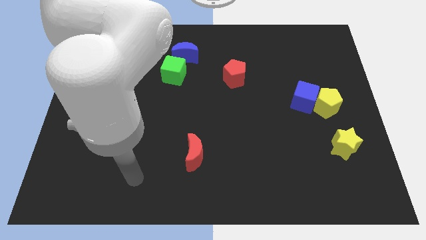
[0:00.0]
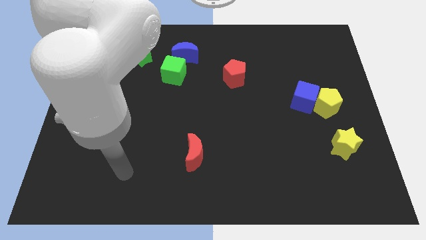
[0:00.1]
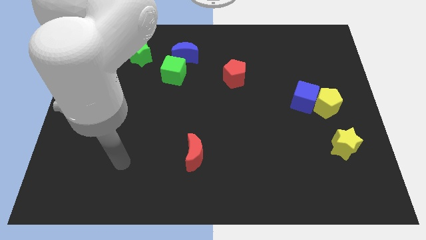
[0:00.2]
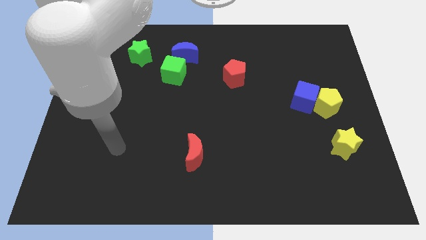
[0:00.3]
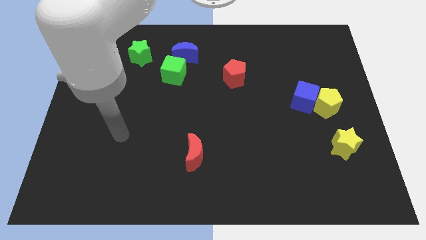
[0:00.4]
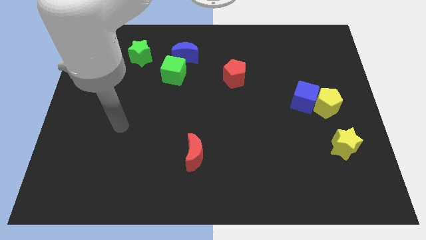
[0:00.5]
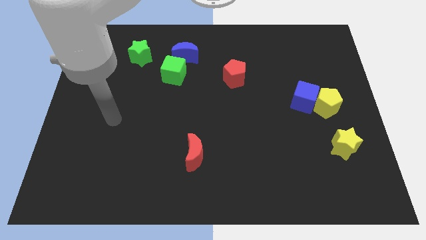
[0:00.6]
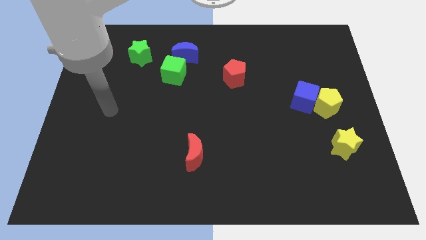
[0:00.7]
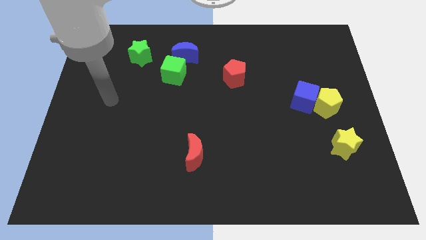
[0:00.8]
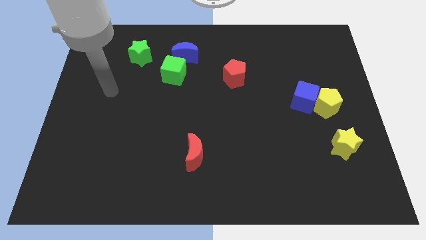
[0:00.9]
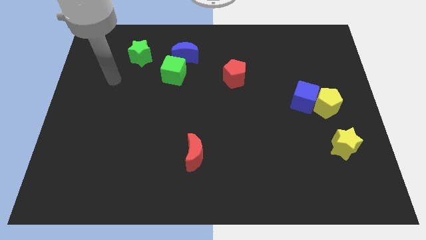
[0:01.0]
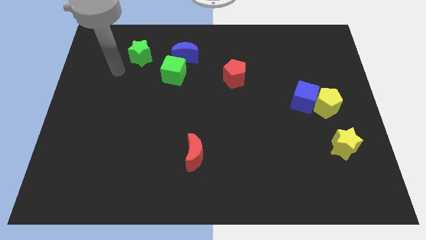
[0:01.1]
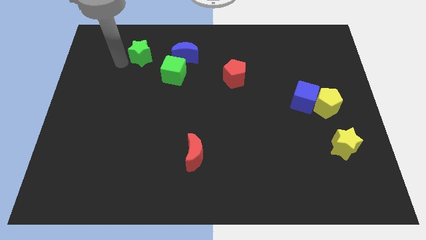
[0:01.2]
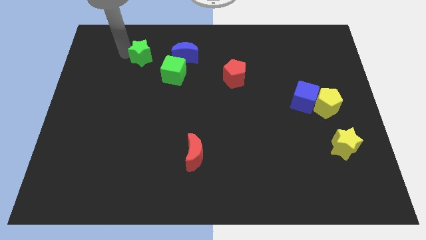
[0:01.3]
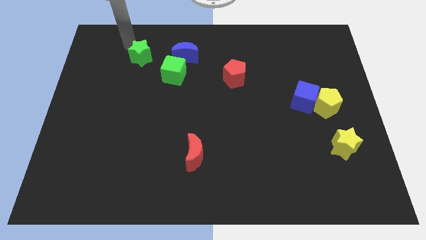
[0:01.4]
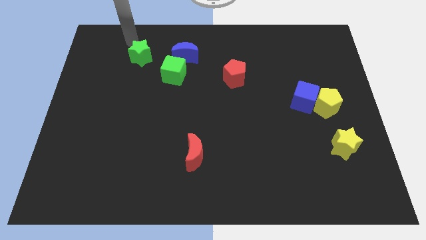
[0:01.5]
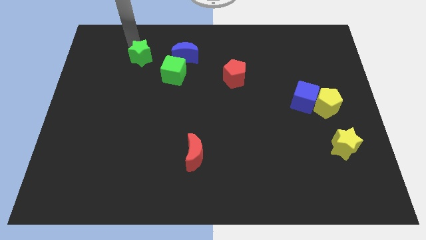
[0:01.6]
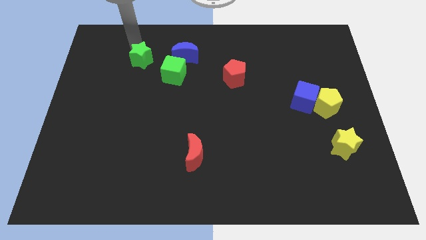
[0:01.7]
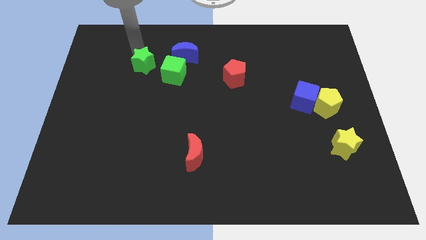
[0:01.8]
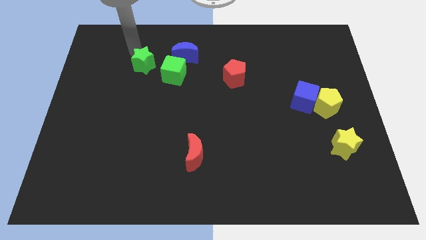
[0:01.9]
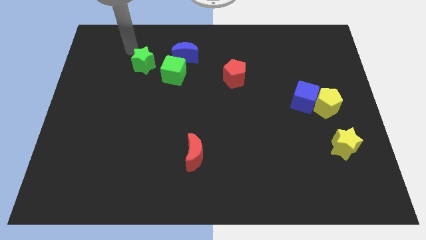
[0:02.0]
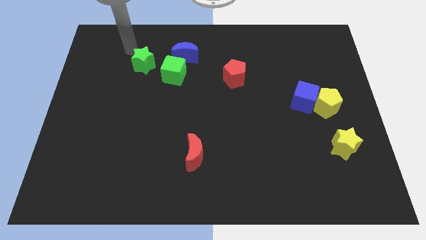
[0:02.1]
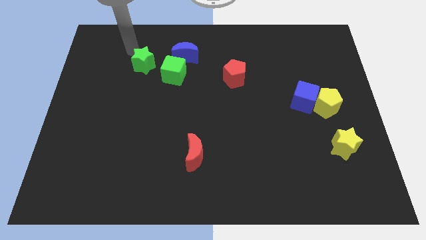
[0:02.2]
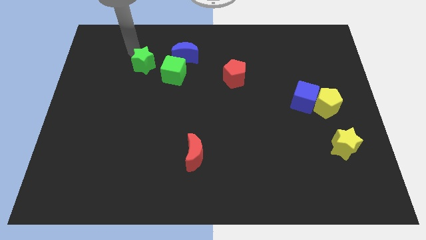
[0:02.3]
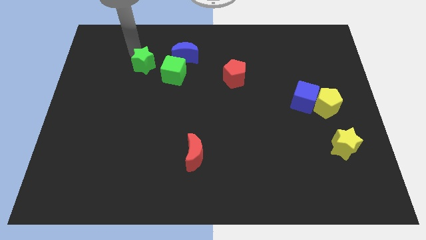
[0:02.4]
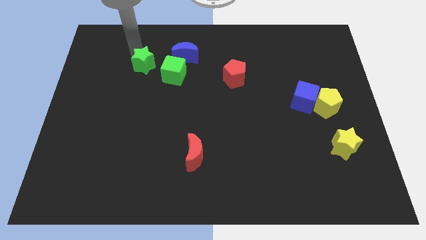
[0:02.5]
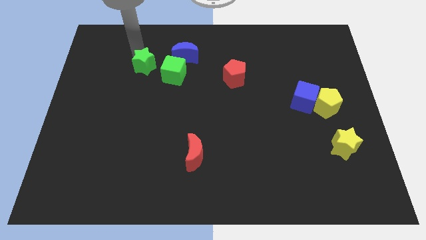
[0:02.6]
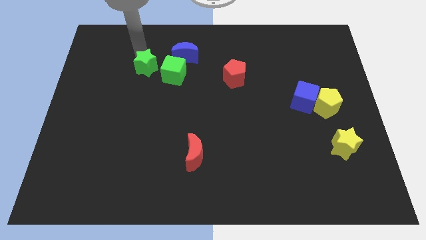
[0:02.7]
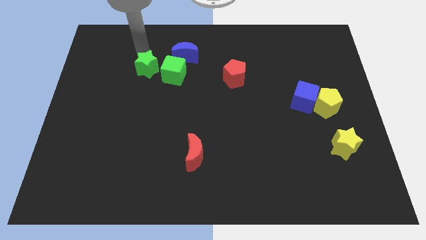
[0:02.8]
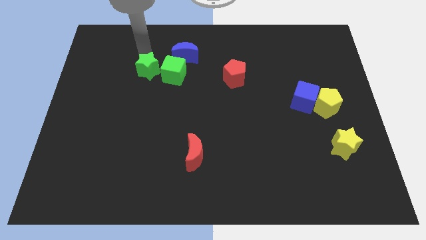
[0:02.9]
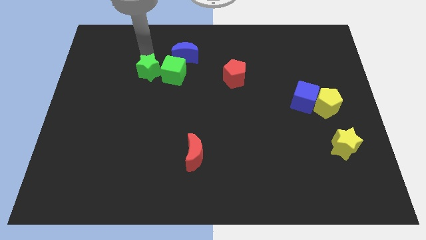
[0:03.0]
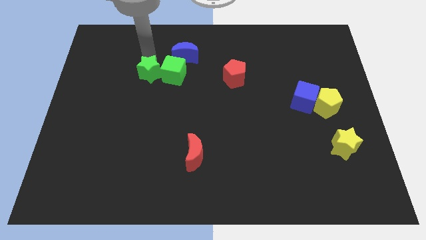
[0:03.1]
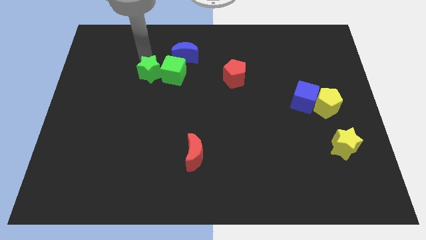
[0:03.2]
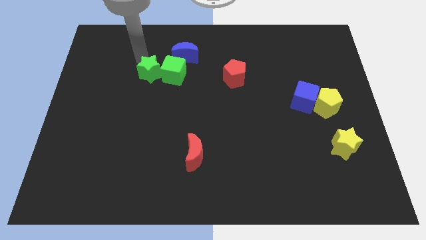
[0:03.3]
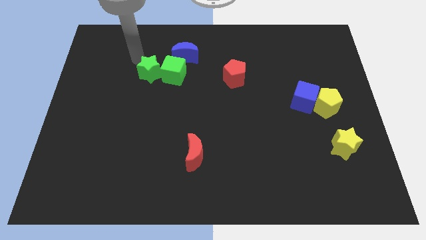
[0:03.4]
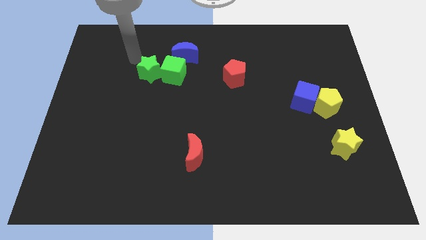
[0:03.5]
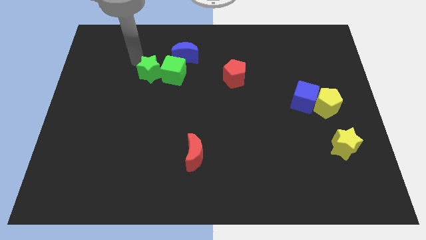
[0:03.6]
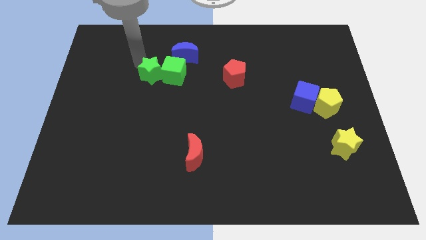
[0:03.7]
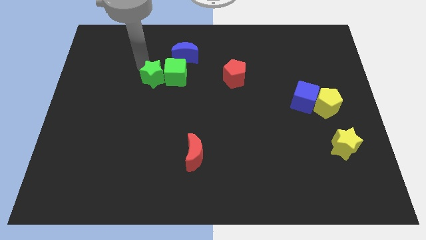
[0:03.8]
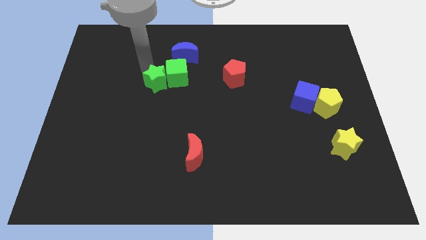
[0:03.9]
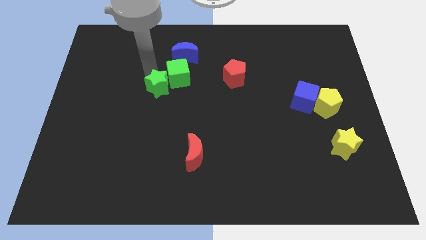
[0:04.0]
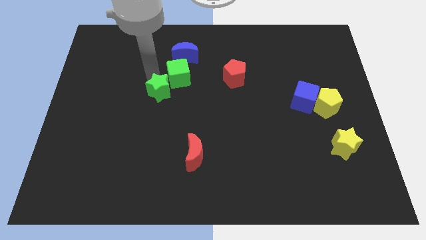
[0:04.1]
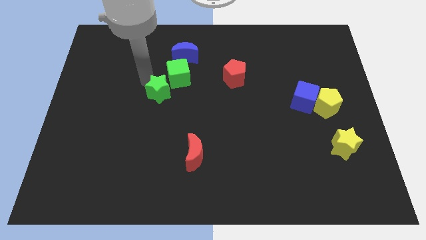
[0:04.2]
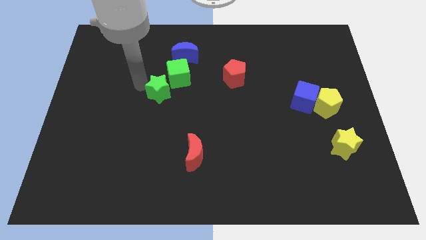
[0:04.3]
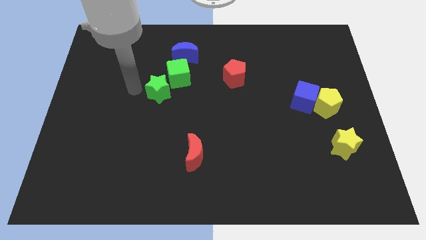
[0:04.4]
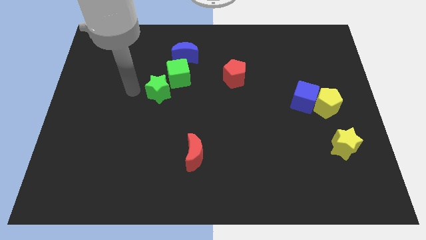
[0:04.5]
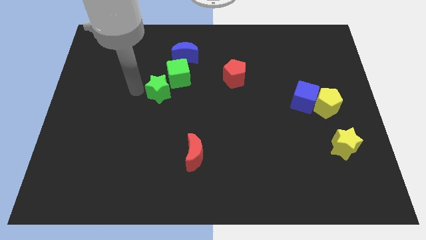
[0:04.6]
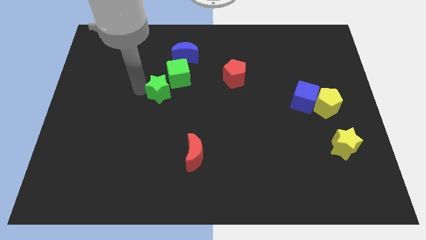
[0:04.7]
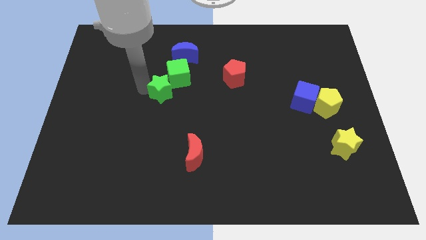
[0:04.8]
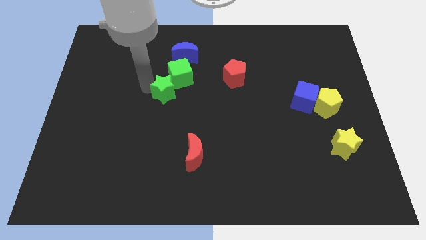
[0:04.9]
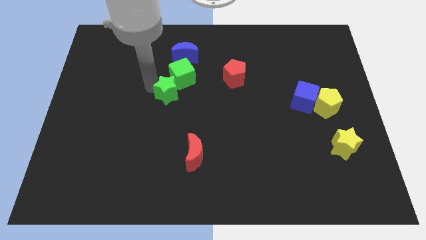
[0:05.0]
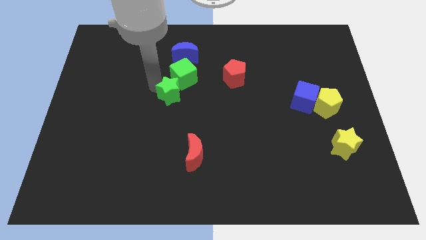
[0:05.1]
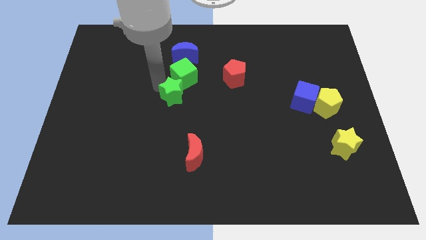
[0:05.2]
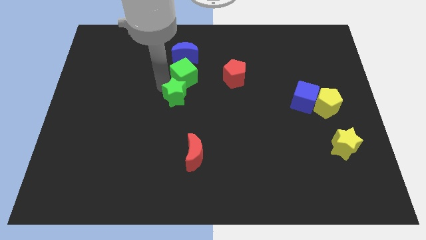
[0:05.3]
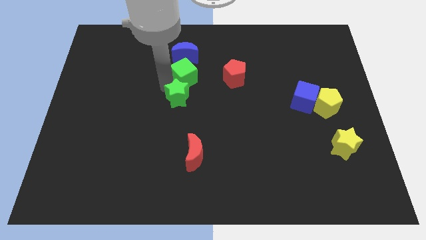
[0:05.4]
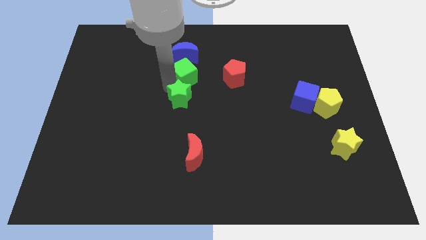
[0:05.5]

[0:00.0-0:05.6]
move the green star diagonally down and to the right of the green cube

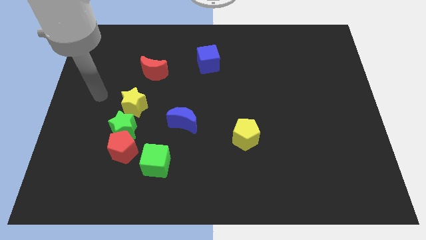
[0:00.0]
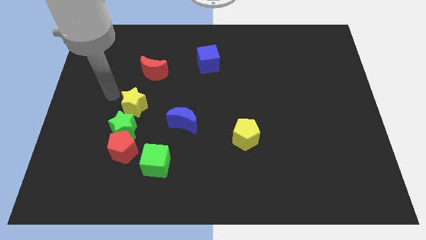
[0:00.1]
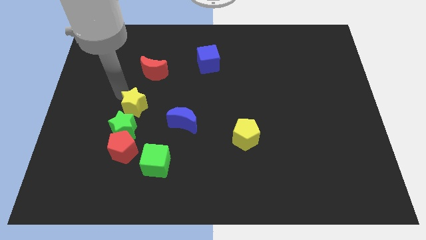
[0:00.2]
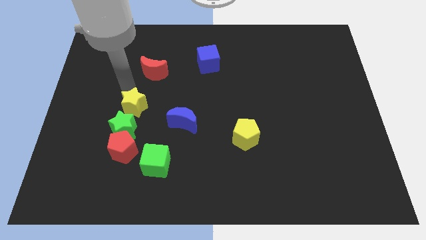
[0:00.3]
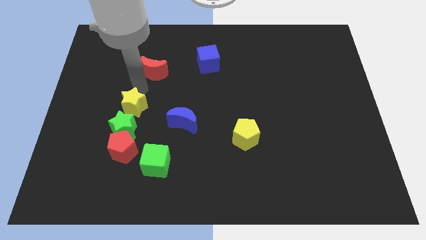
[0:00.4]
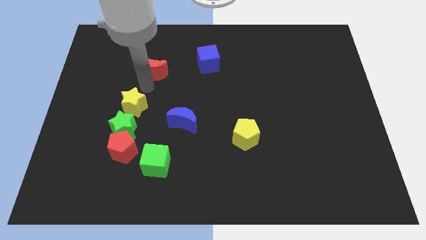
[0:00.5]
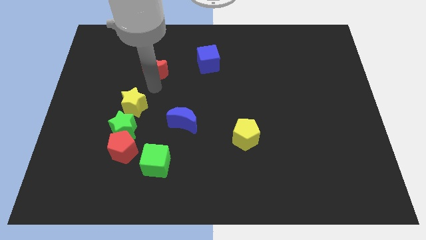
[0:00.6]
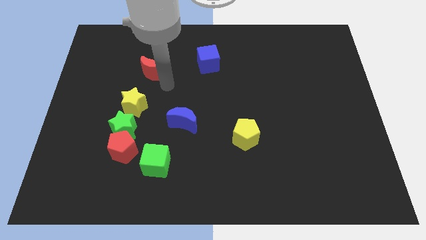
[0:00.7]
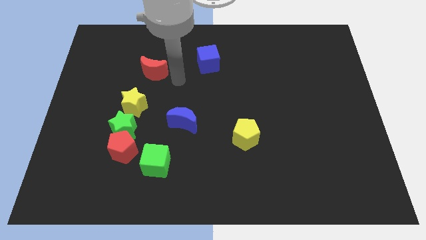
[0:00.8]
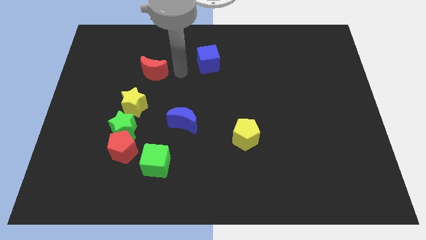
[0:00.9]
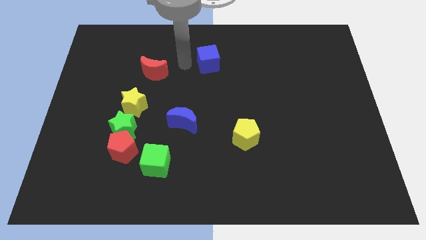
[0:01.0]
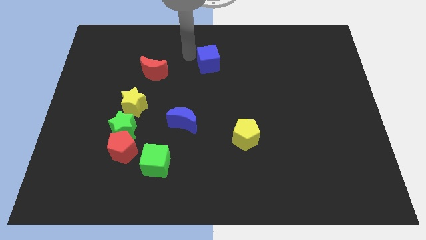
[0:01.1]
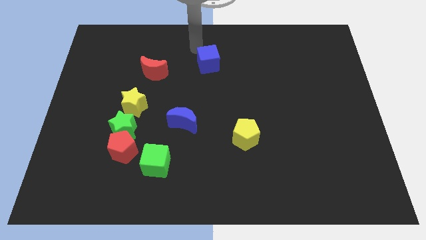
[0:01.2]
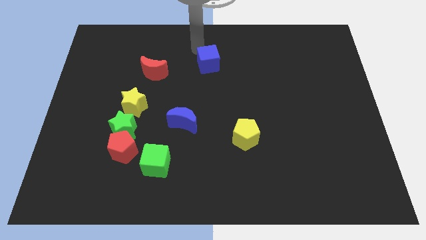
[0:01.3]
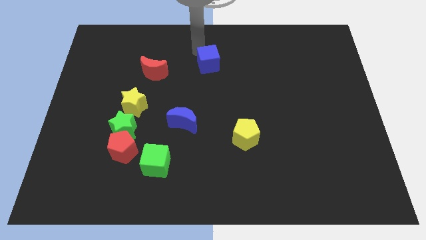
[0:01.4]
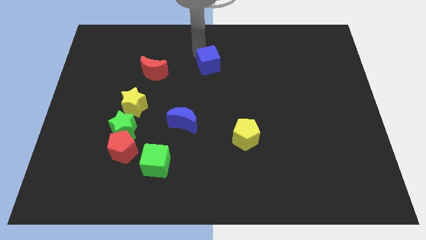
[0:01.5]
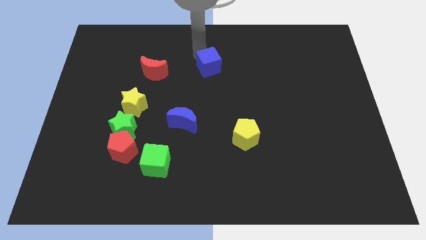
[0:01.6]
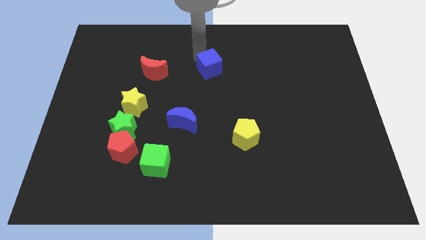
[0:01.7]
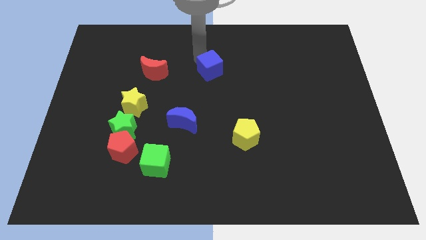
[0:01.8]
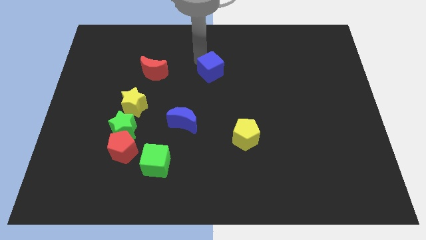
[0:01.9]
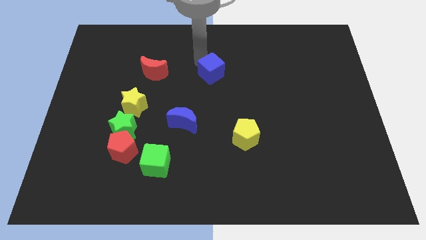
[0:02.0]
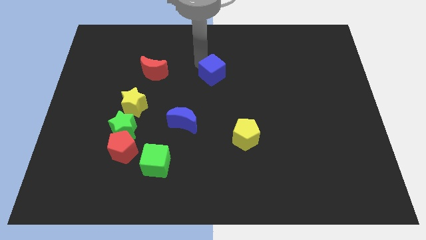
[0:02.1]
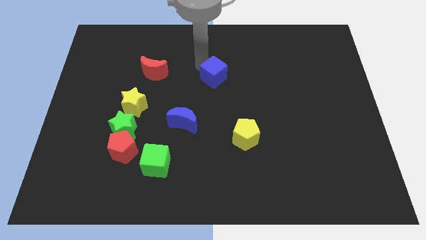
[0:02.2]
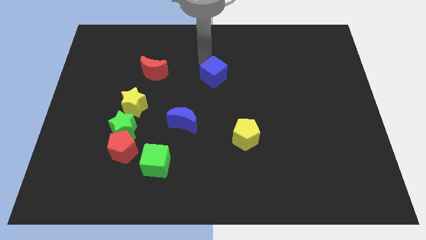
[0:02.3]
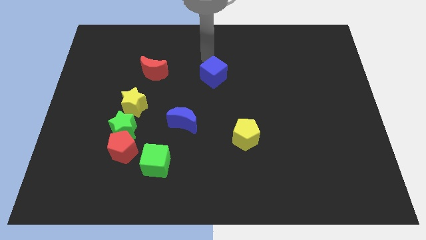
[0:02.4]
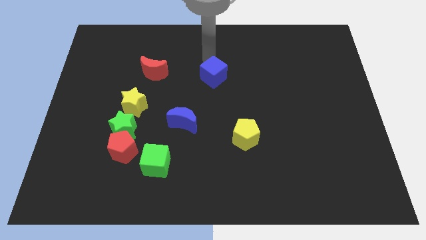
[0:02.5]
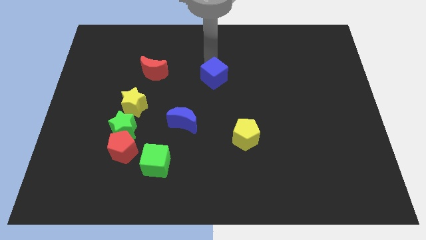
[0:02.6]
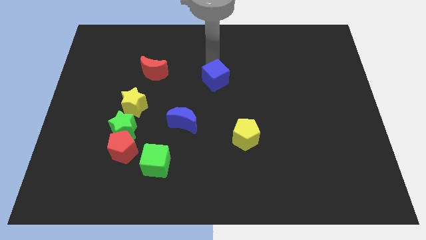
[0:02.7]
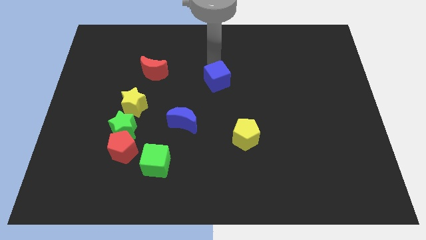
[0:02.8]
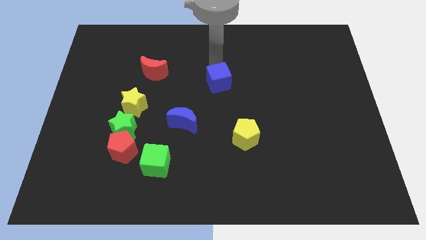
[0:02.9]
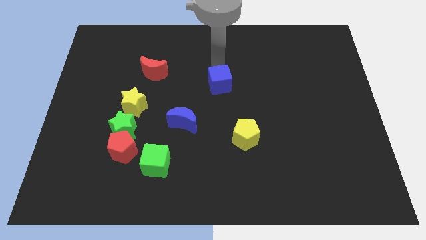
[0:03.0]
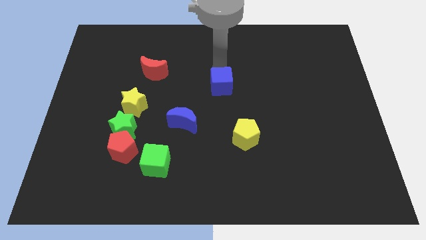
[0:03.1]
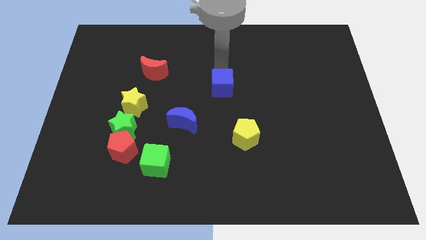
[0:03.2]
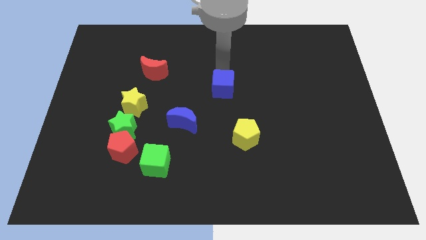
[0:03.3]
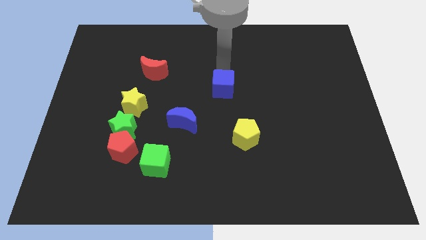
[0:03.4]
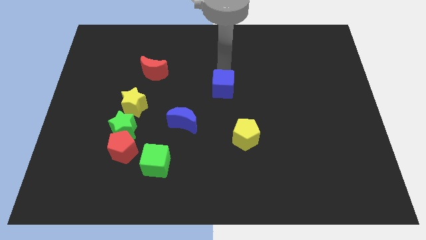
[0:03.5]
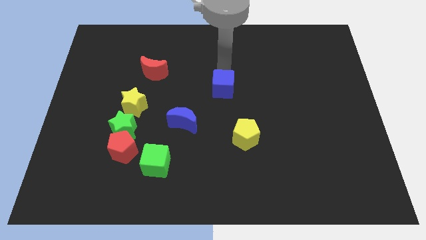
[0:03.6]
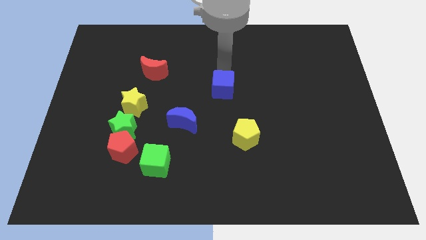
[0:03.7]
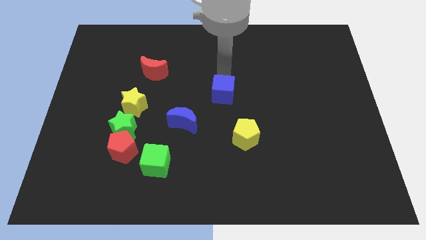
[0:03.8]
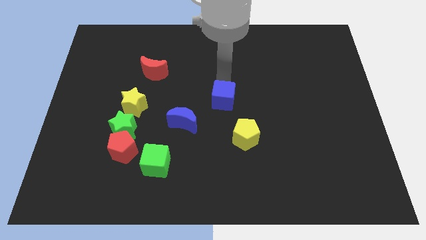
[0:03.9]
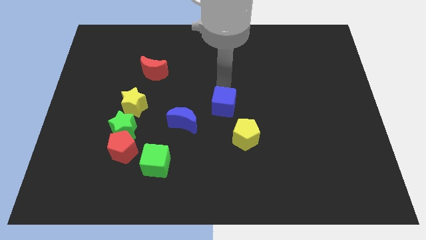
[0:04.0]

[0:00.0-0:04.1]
move the blue cube diagonally up and to the left of the yellow pentagon
